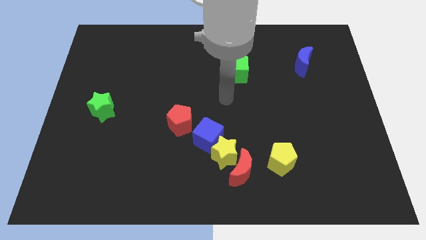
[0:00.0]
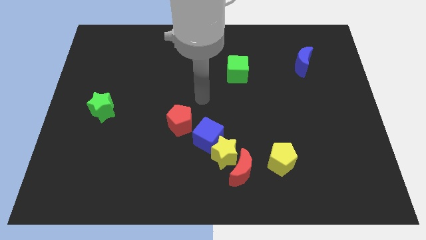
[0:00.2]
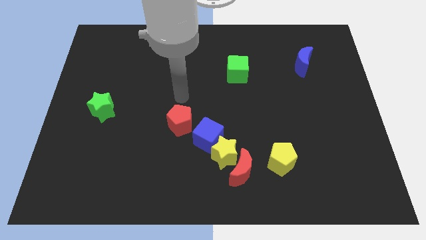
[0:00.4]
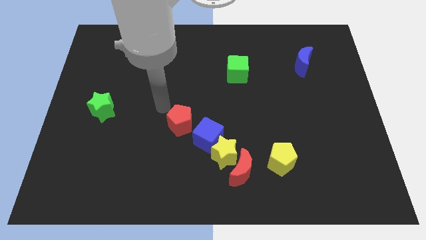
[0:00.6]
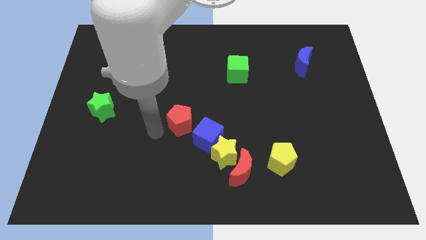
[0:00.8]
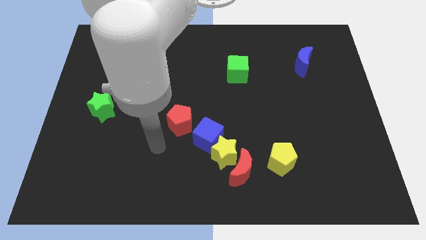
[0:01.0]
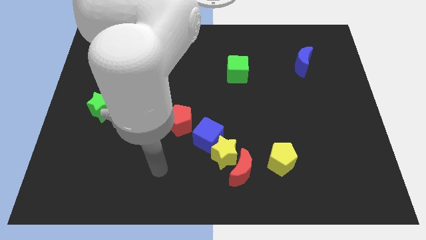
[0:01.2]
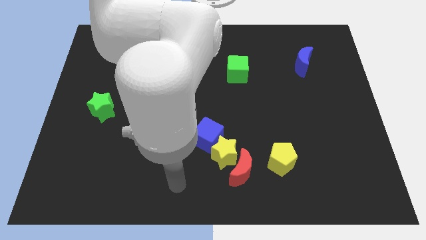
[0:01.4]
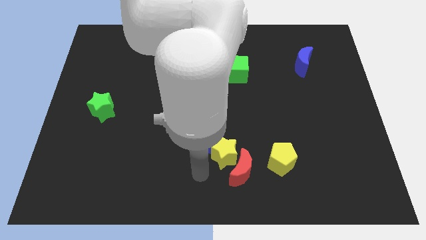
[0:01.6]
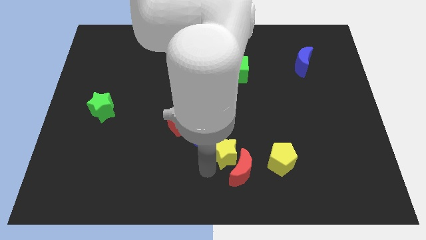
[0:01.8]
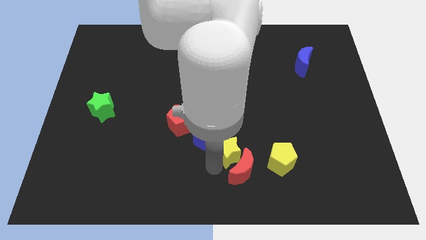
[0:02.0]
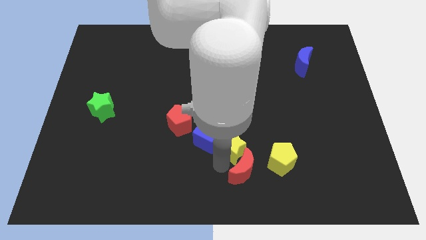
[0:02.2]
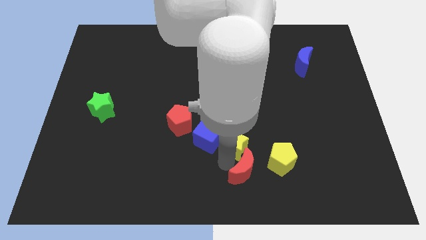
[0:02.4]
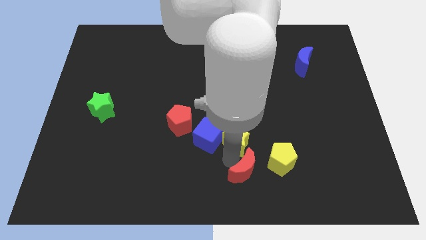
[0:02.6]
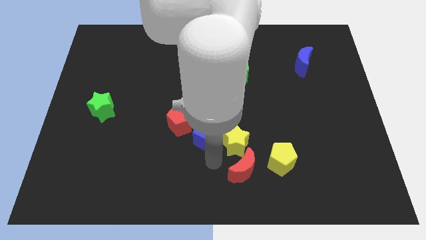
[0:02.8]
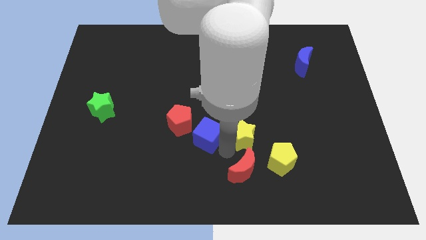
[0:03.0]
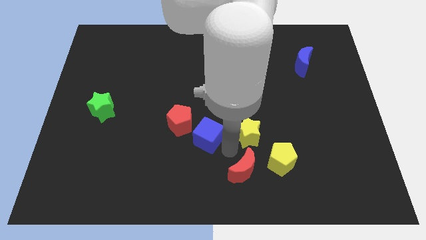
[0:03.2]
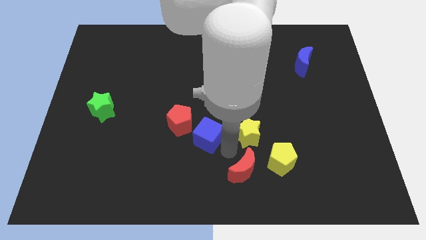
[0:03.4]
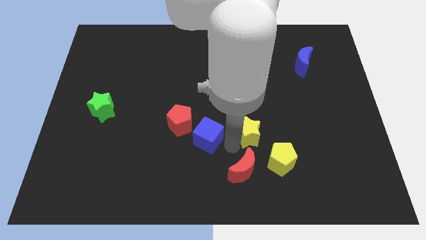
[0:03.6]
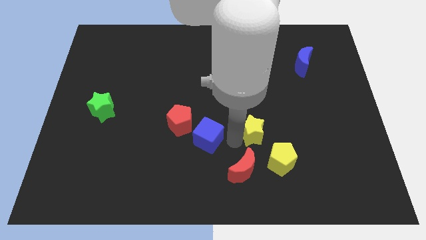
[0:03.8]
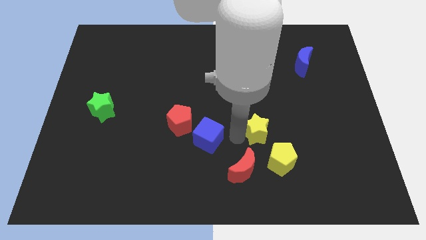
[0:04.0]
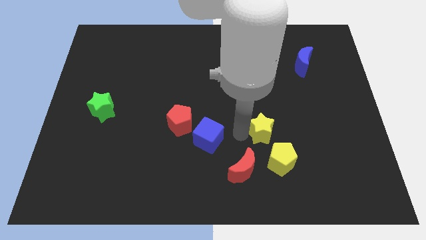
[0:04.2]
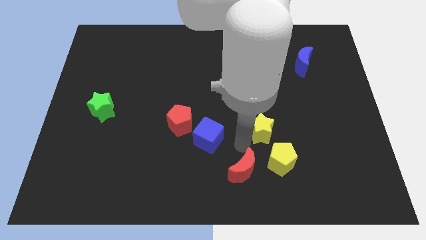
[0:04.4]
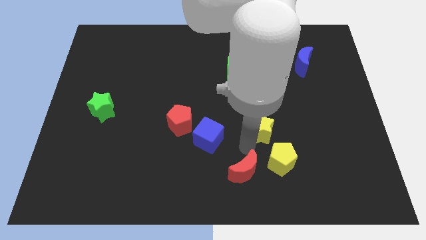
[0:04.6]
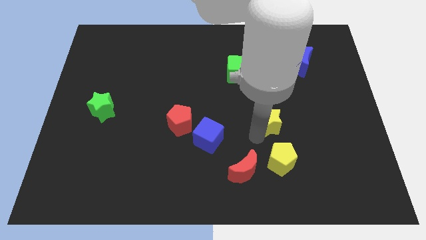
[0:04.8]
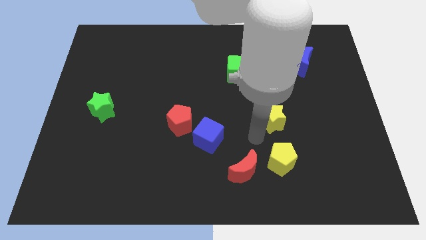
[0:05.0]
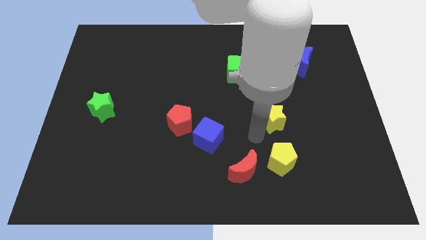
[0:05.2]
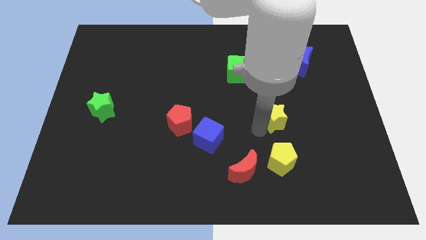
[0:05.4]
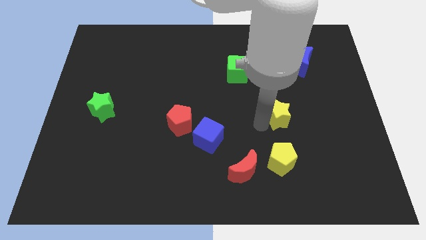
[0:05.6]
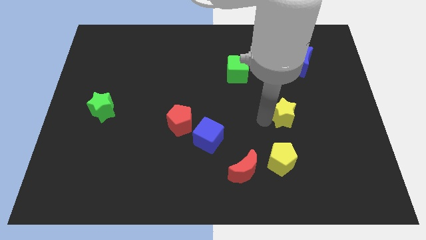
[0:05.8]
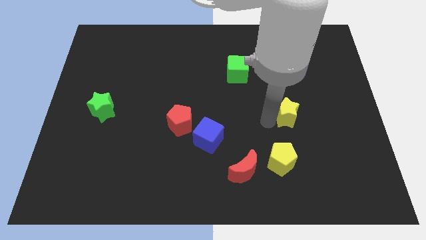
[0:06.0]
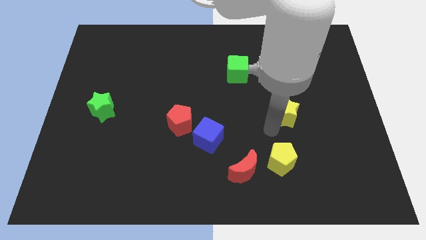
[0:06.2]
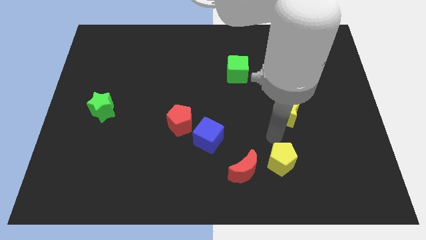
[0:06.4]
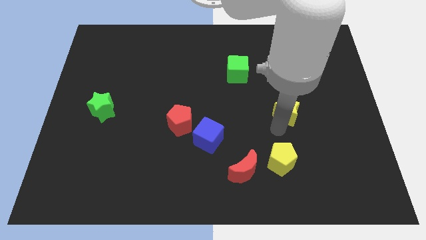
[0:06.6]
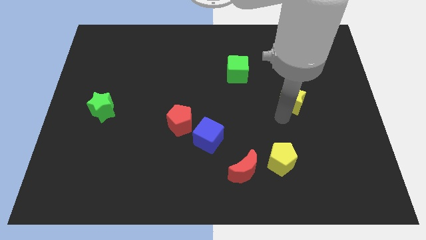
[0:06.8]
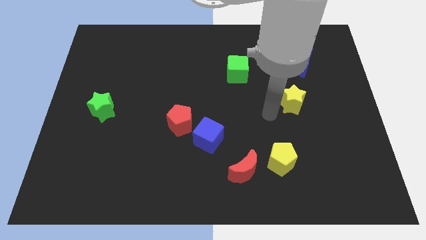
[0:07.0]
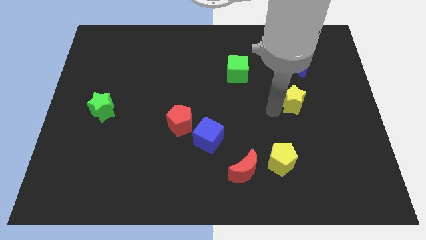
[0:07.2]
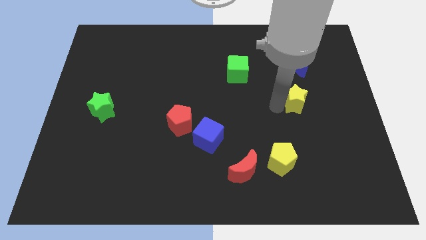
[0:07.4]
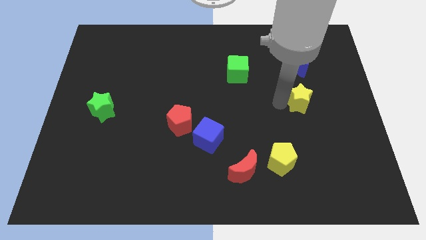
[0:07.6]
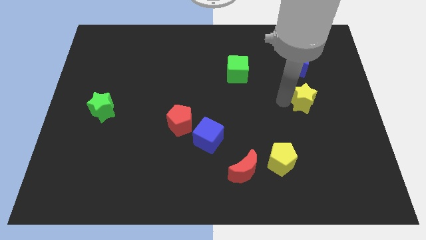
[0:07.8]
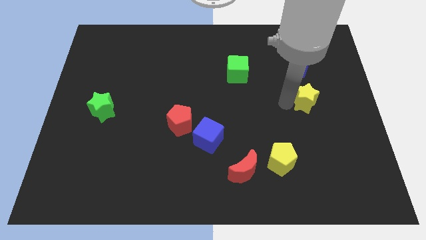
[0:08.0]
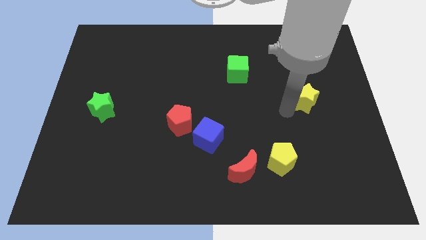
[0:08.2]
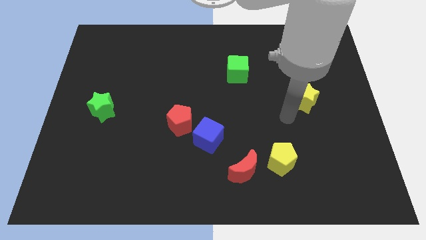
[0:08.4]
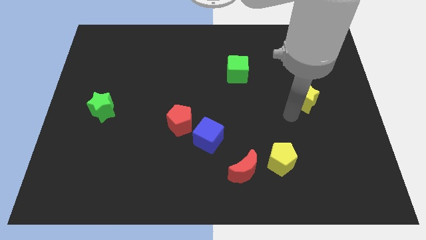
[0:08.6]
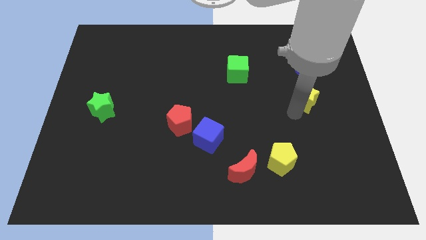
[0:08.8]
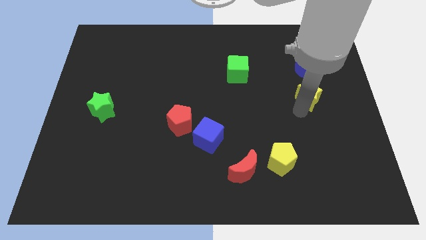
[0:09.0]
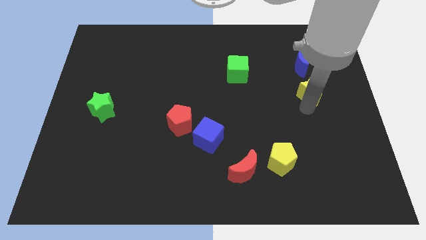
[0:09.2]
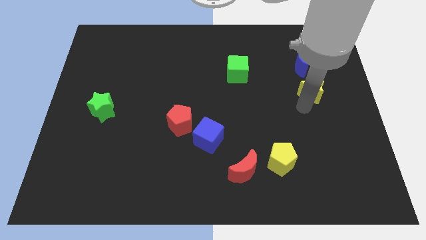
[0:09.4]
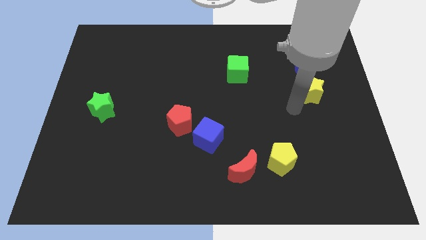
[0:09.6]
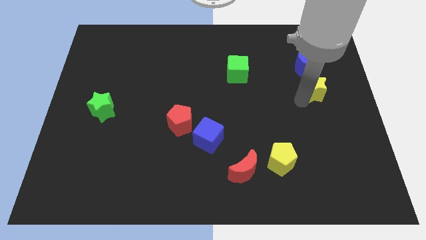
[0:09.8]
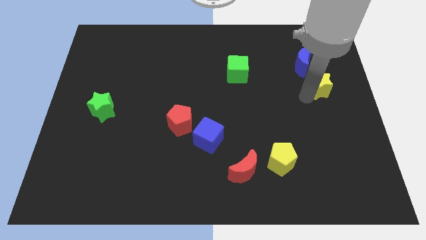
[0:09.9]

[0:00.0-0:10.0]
move the yellow star diagonally down and to the right of the blue moon

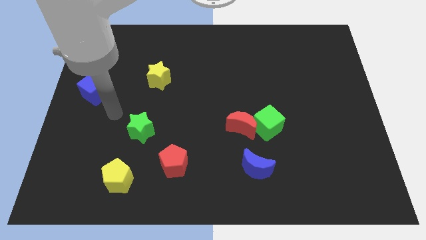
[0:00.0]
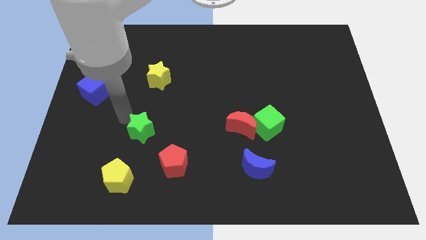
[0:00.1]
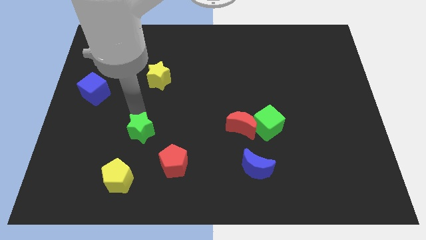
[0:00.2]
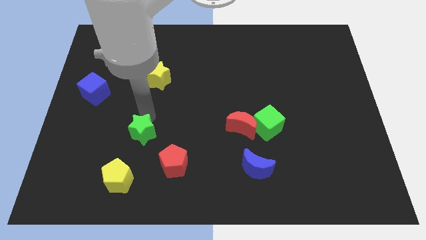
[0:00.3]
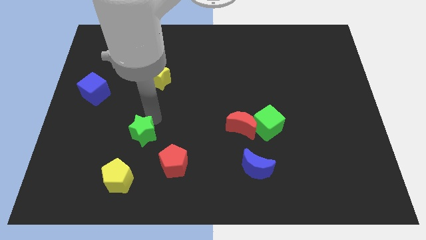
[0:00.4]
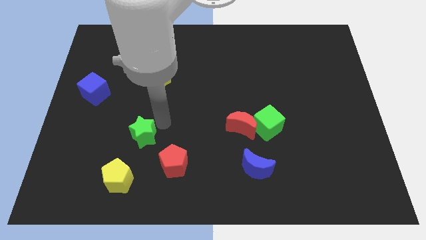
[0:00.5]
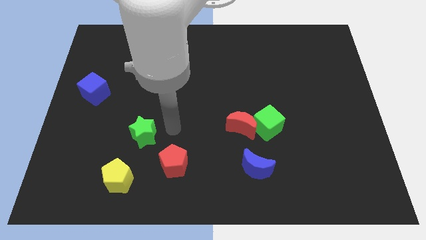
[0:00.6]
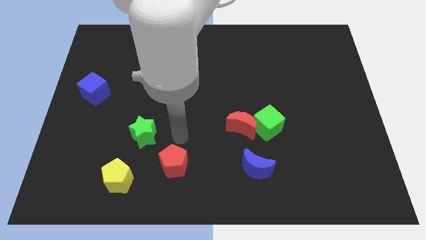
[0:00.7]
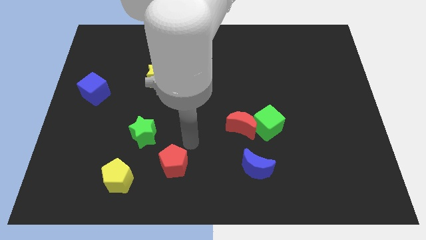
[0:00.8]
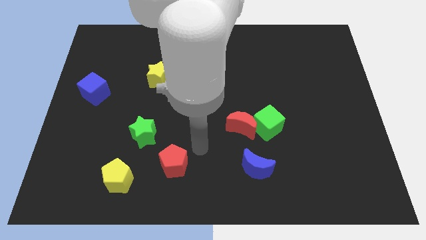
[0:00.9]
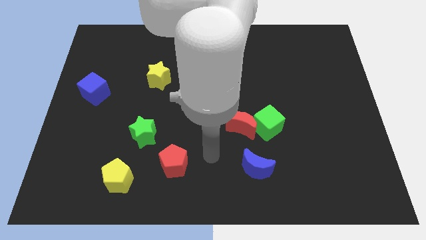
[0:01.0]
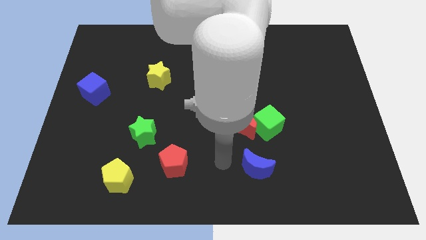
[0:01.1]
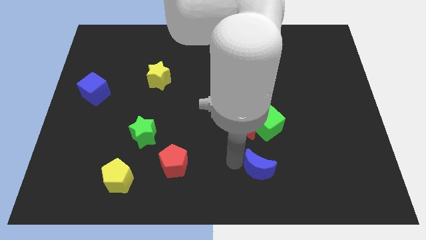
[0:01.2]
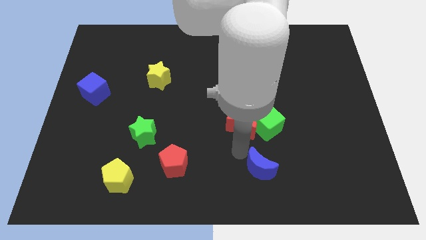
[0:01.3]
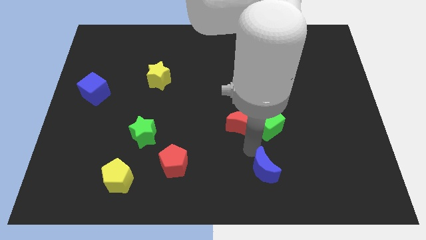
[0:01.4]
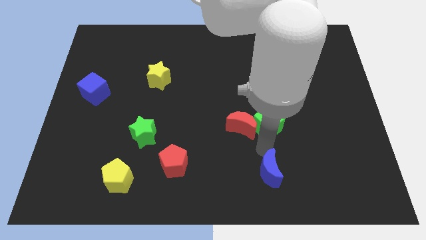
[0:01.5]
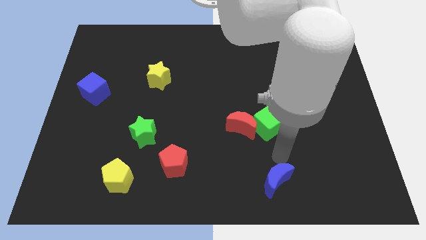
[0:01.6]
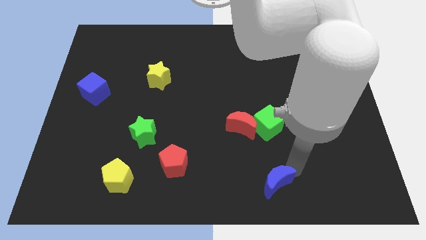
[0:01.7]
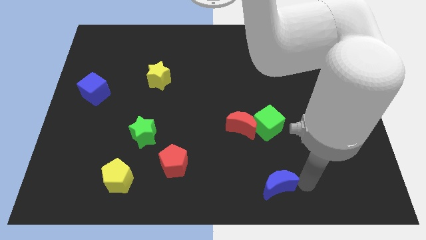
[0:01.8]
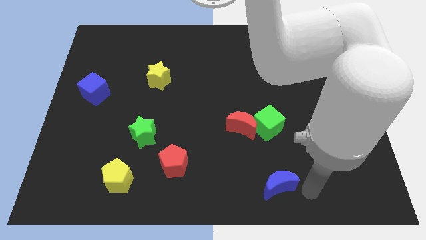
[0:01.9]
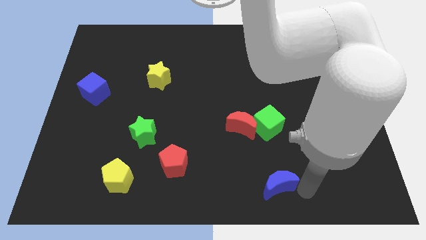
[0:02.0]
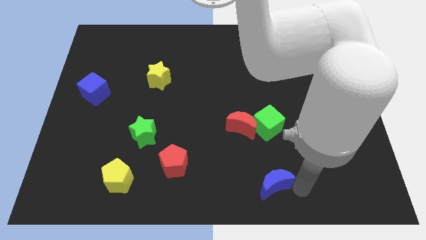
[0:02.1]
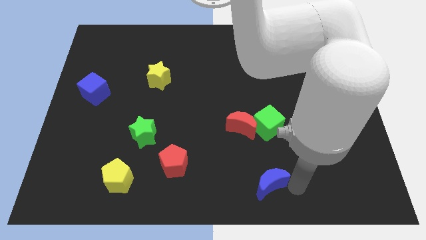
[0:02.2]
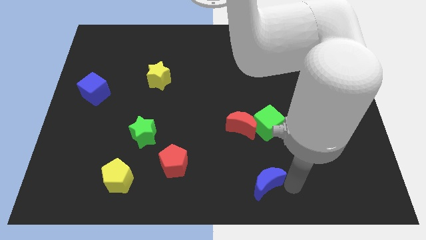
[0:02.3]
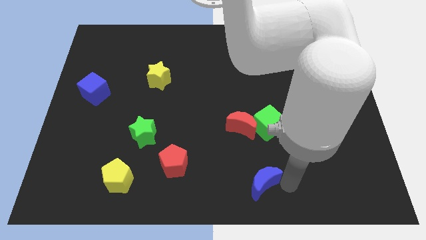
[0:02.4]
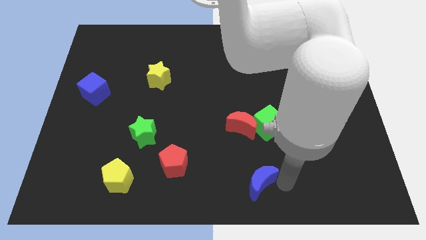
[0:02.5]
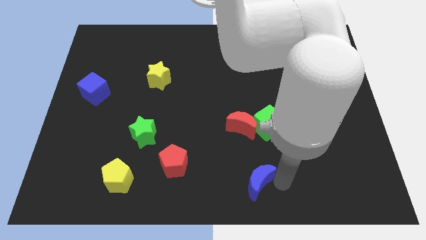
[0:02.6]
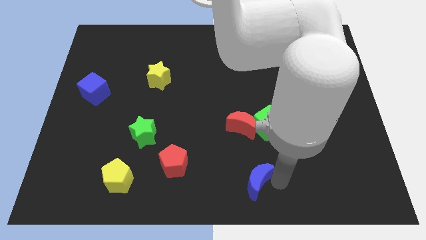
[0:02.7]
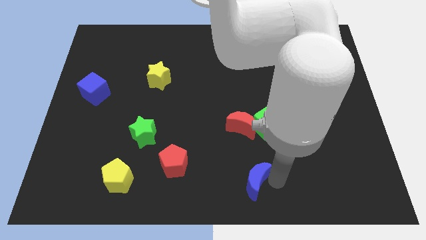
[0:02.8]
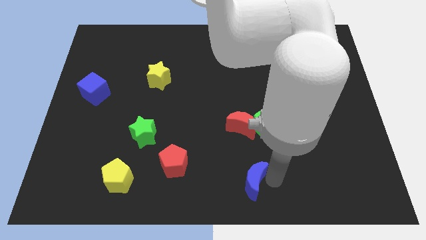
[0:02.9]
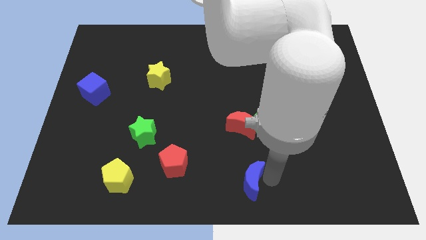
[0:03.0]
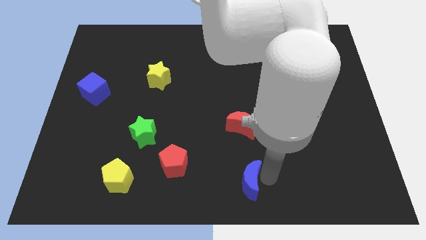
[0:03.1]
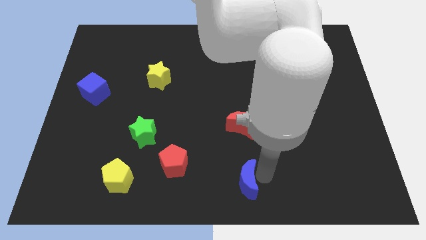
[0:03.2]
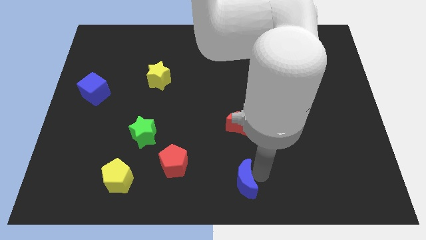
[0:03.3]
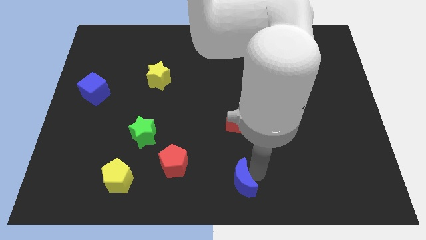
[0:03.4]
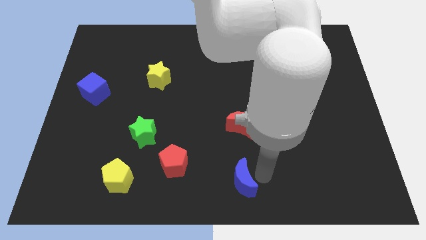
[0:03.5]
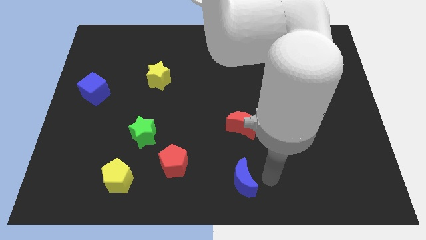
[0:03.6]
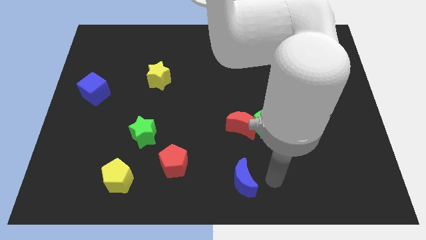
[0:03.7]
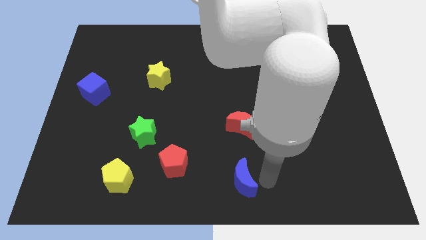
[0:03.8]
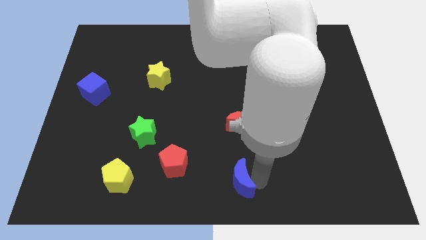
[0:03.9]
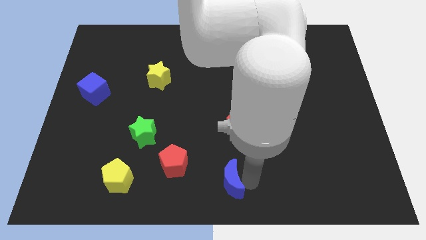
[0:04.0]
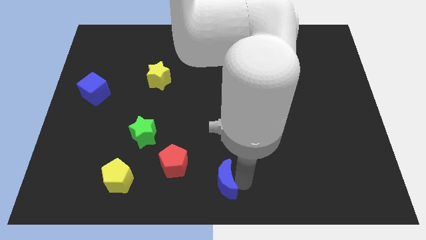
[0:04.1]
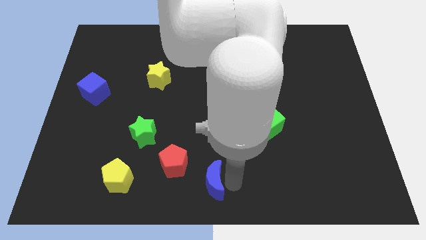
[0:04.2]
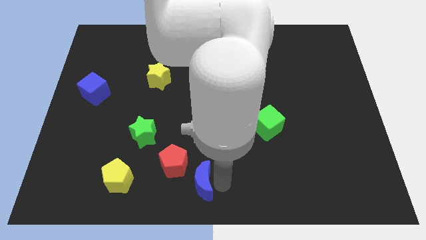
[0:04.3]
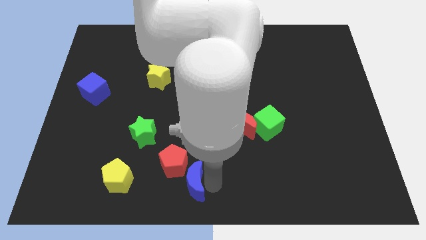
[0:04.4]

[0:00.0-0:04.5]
put the blue moon just right of the yellow pentagon
